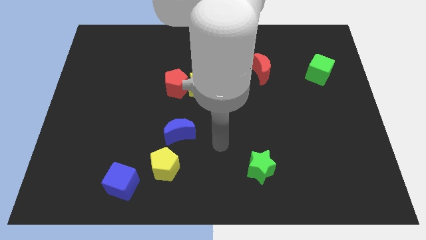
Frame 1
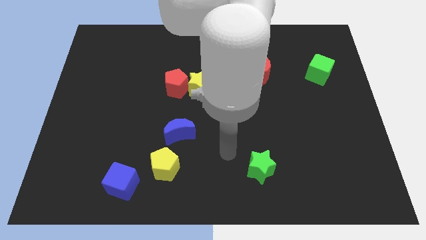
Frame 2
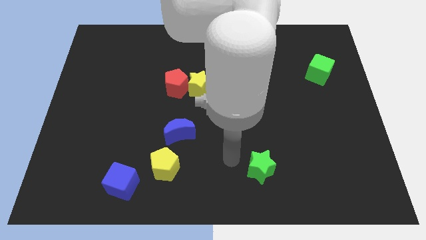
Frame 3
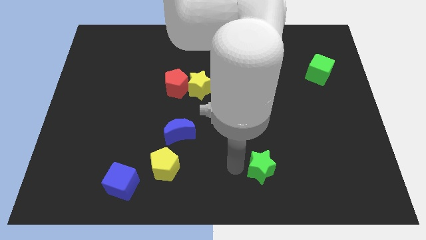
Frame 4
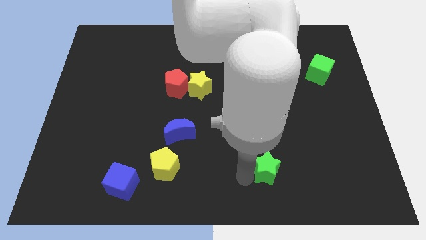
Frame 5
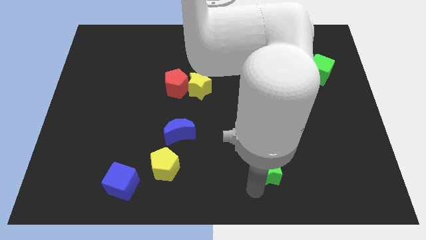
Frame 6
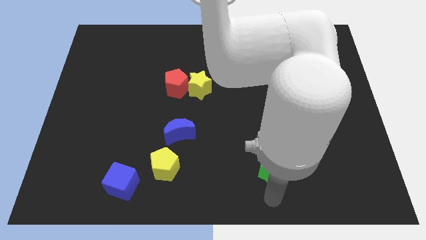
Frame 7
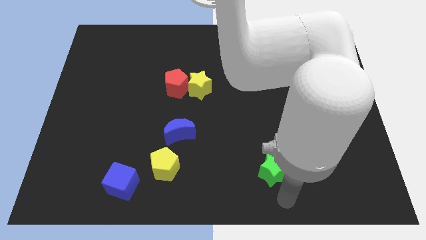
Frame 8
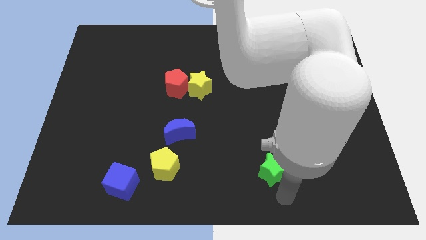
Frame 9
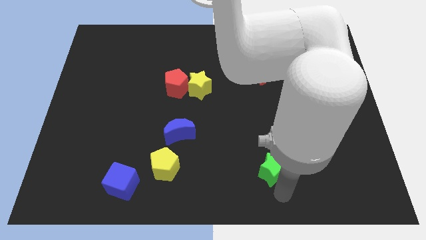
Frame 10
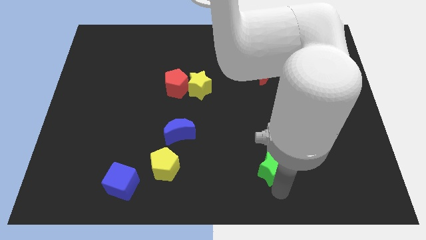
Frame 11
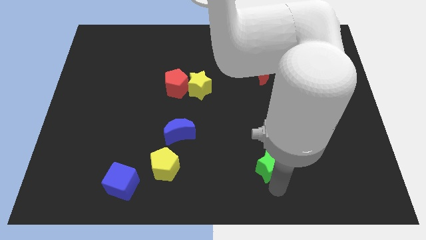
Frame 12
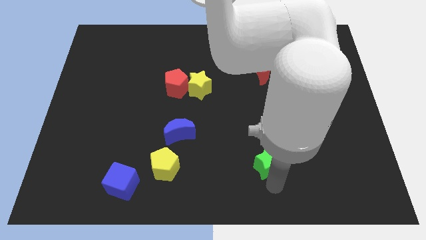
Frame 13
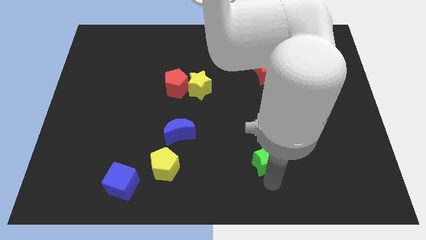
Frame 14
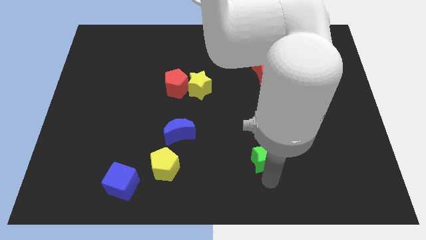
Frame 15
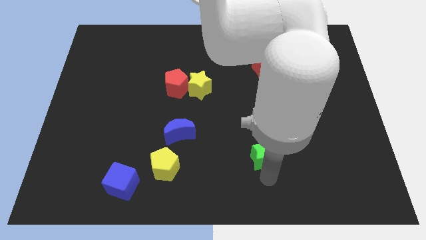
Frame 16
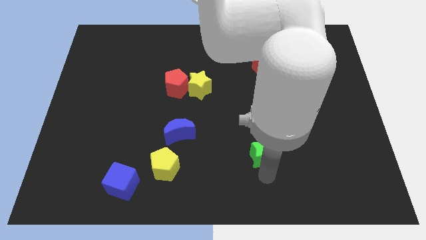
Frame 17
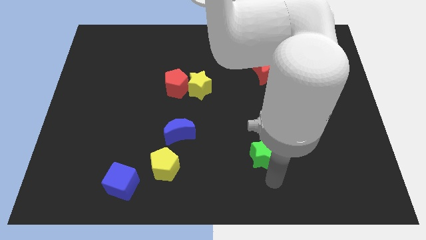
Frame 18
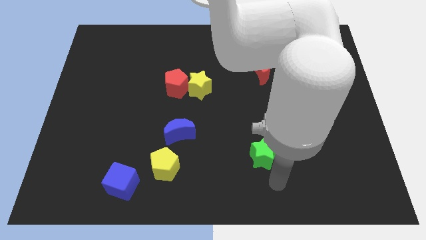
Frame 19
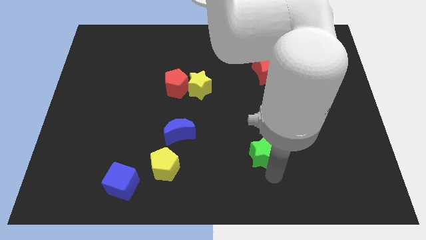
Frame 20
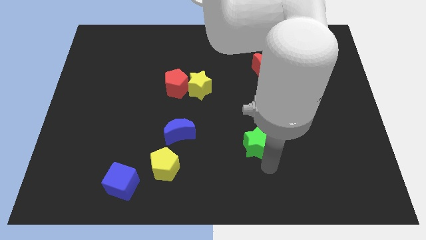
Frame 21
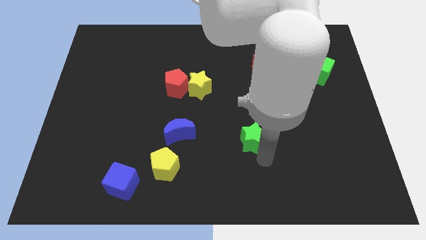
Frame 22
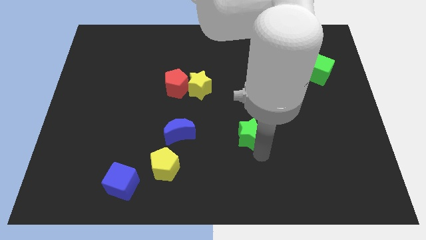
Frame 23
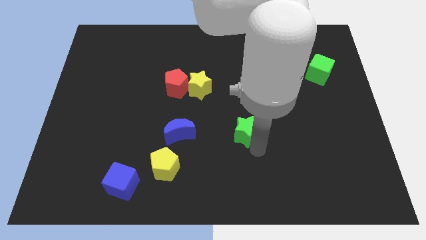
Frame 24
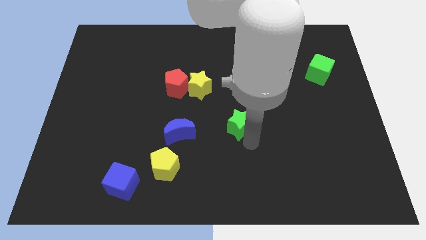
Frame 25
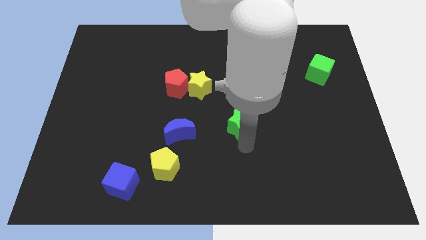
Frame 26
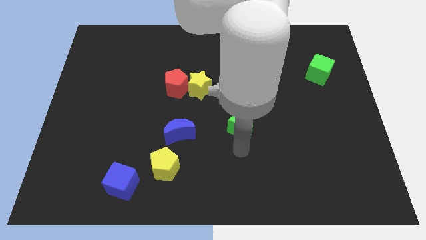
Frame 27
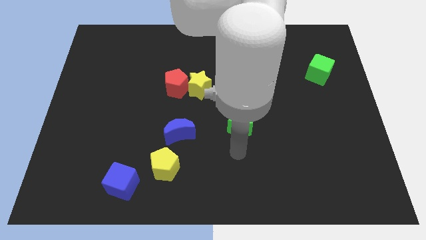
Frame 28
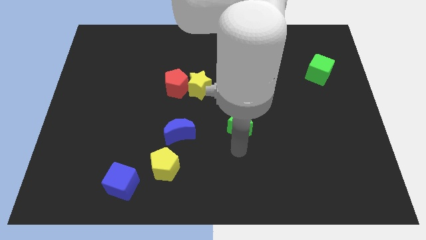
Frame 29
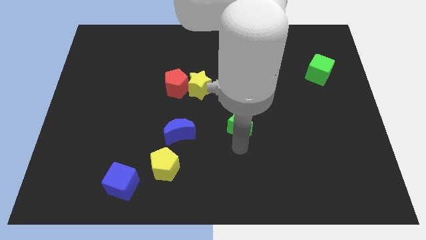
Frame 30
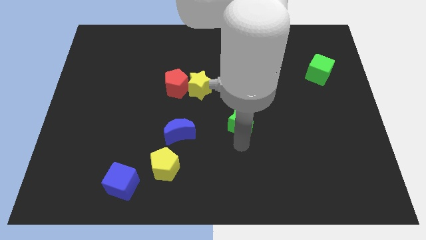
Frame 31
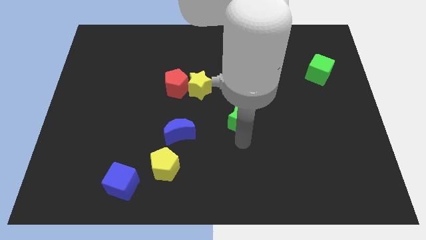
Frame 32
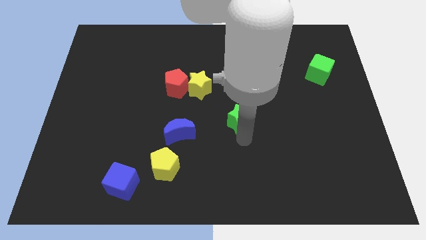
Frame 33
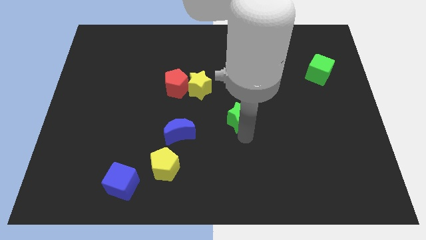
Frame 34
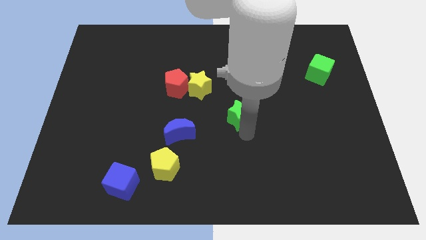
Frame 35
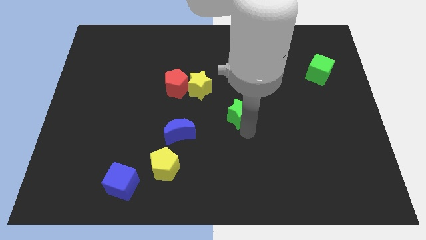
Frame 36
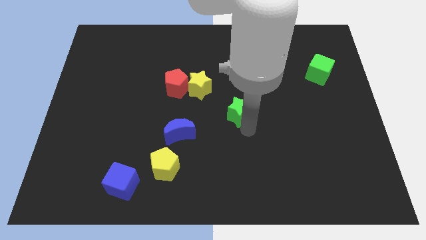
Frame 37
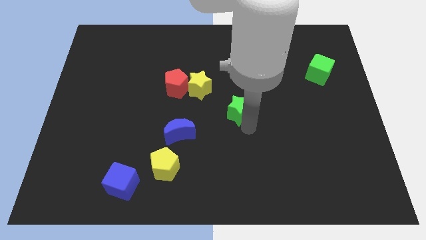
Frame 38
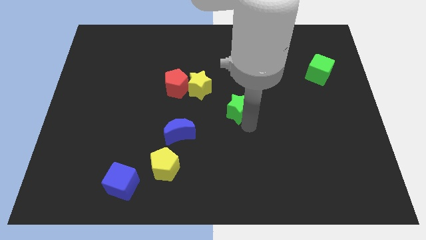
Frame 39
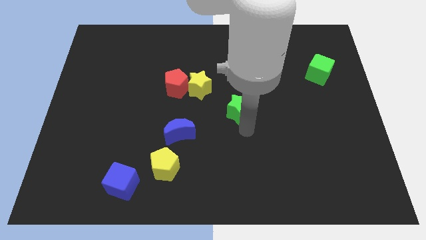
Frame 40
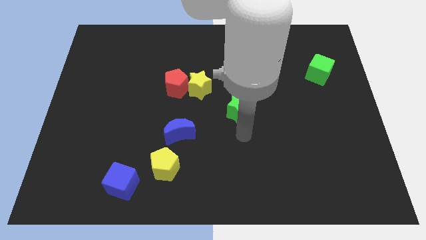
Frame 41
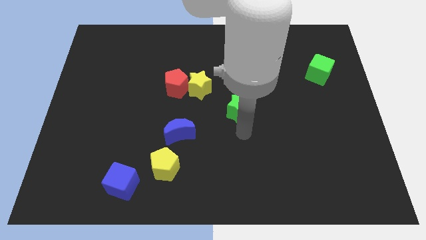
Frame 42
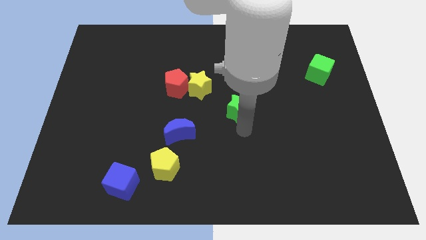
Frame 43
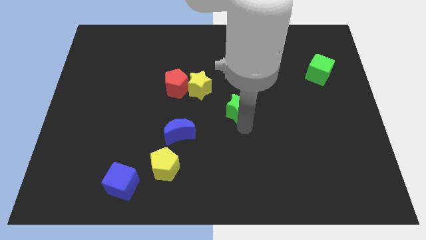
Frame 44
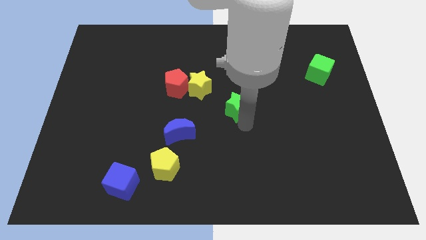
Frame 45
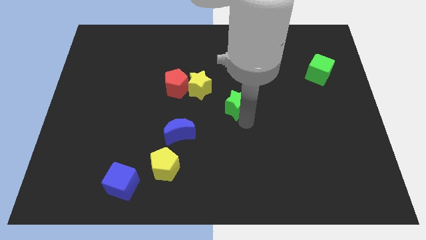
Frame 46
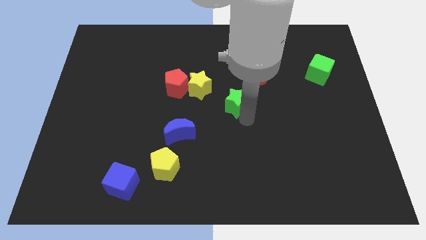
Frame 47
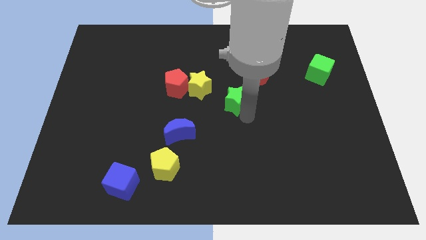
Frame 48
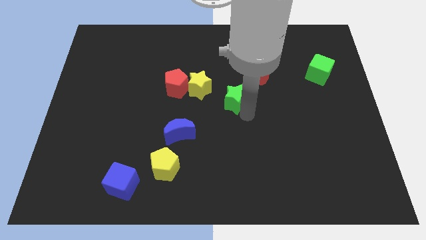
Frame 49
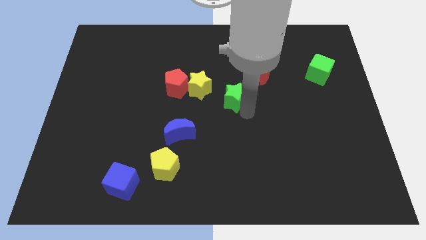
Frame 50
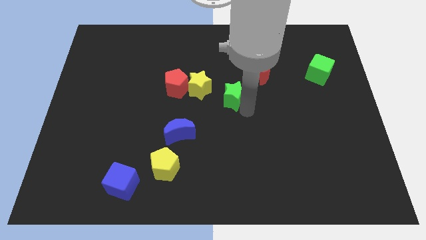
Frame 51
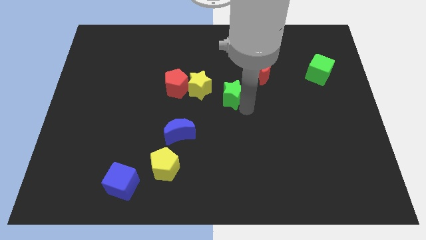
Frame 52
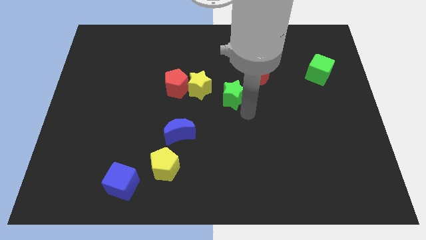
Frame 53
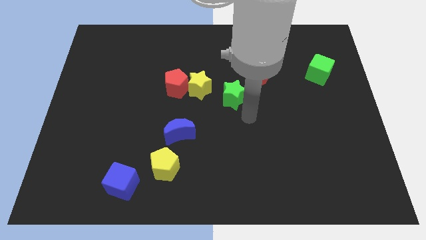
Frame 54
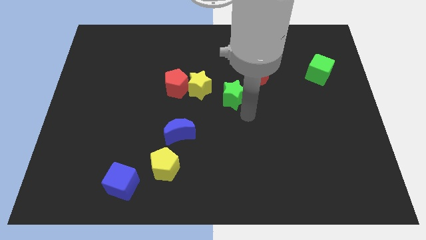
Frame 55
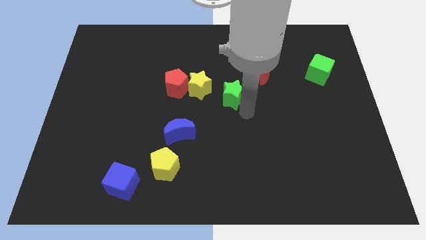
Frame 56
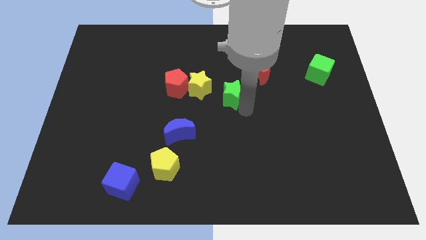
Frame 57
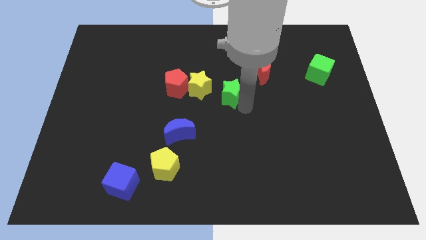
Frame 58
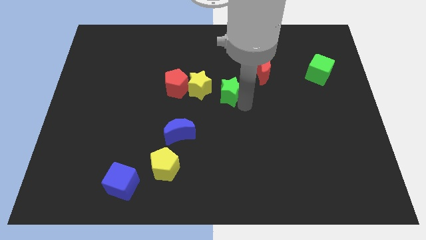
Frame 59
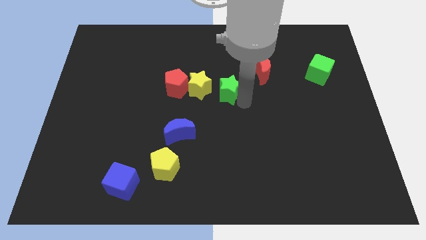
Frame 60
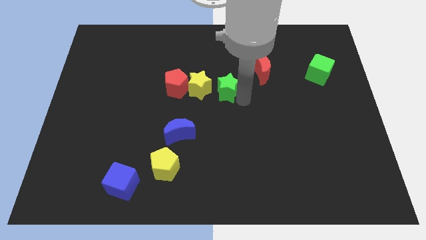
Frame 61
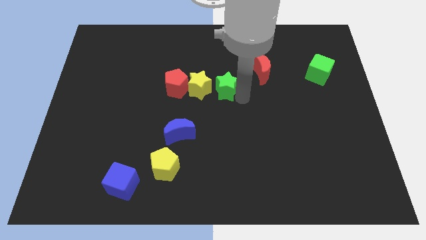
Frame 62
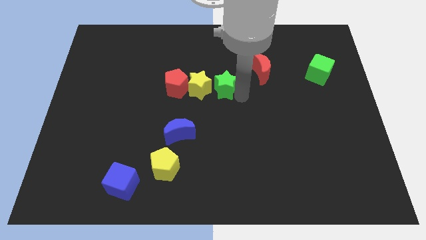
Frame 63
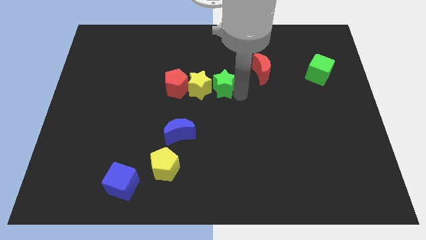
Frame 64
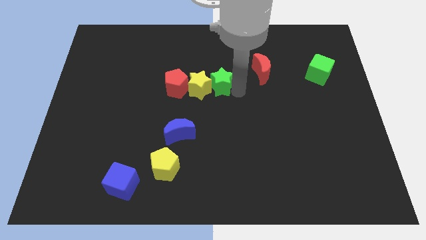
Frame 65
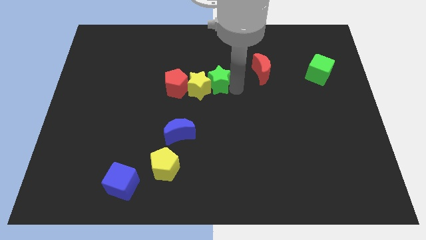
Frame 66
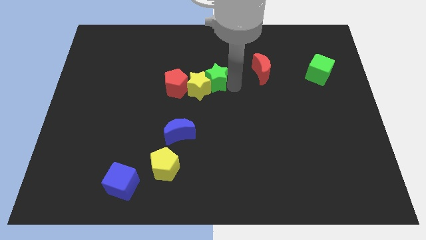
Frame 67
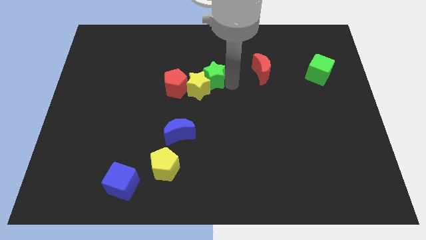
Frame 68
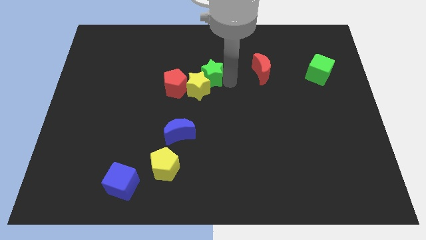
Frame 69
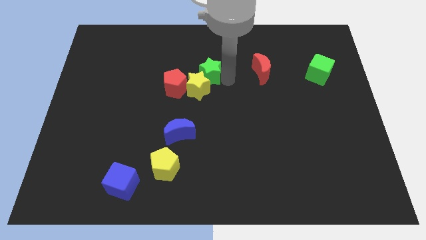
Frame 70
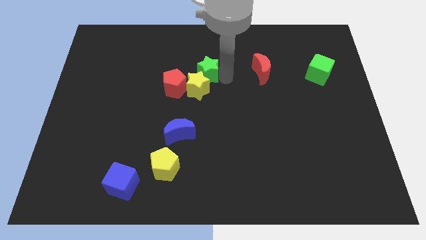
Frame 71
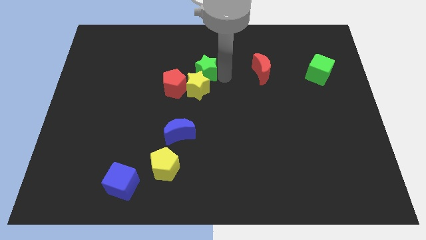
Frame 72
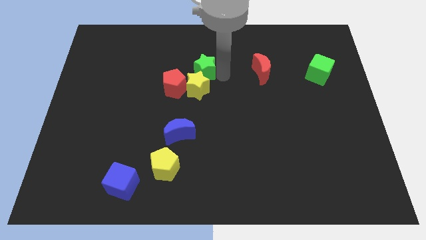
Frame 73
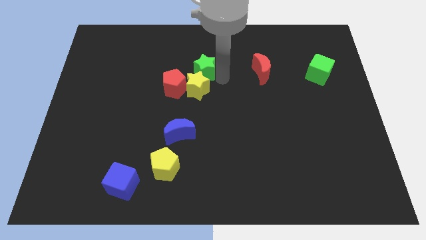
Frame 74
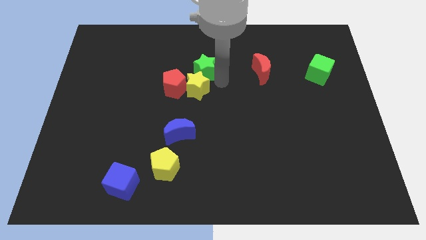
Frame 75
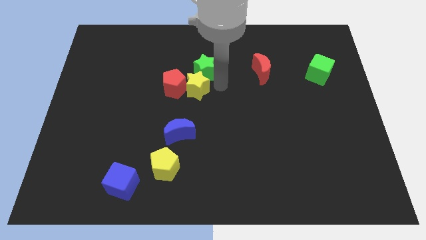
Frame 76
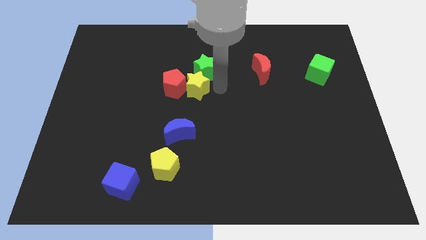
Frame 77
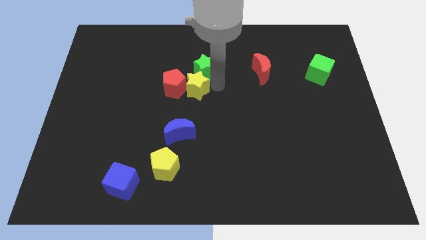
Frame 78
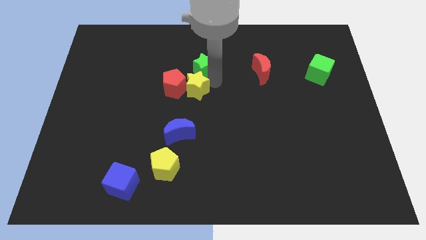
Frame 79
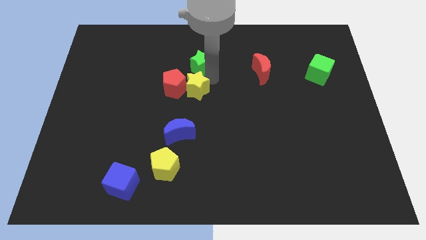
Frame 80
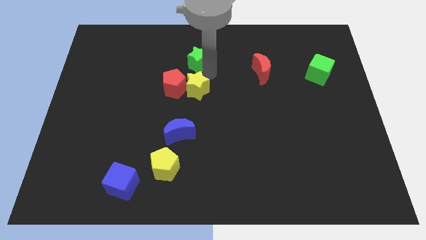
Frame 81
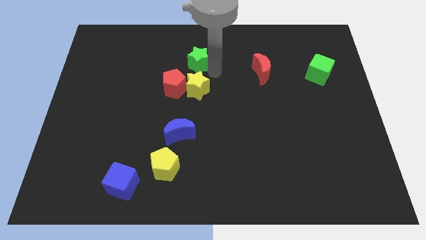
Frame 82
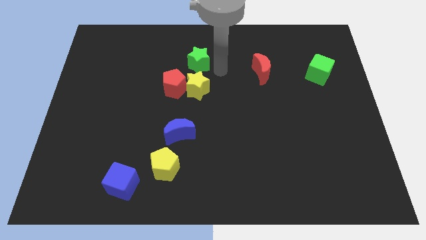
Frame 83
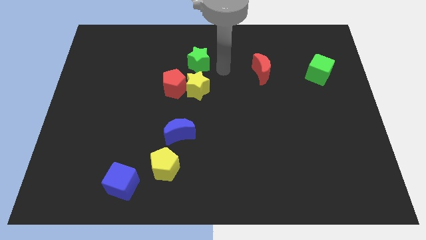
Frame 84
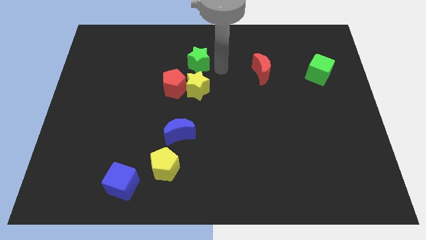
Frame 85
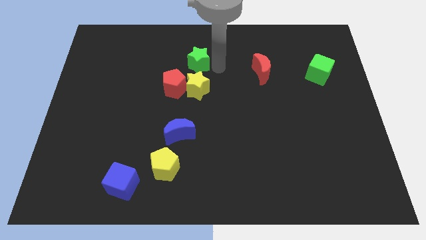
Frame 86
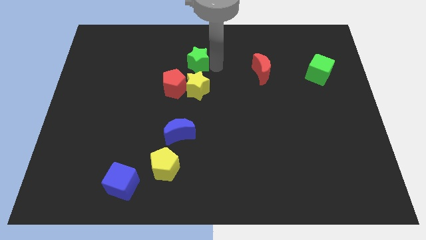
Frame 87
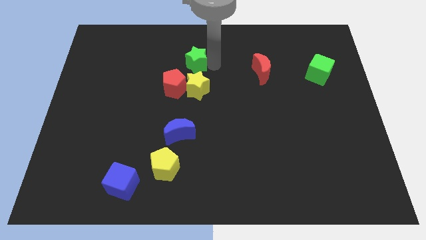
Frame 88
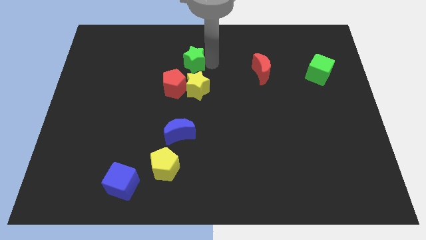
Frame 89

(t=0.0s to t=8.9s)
push the green star to the top of the red pentagon
